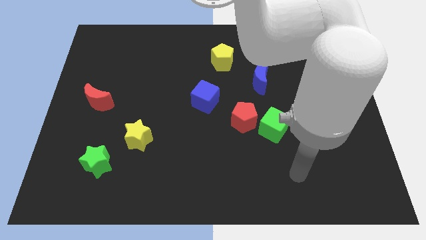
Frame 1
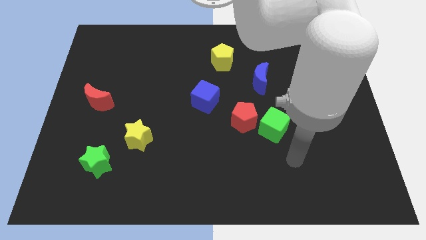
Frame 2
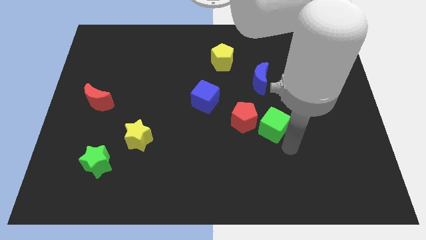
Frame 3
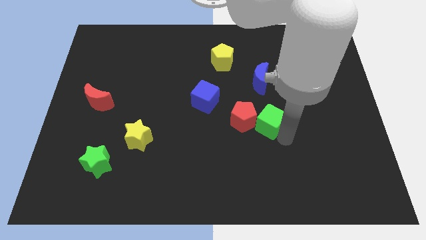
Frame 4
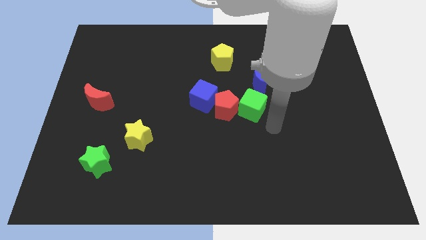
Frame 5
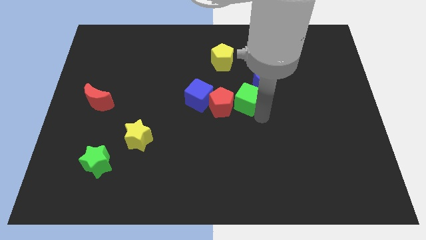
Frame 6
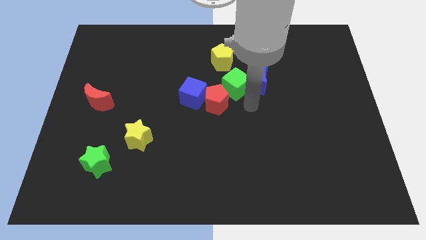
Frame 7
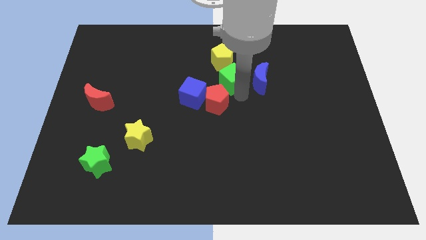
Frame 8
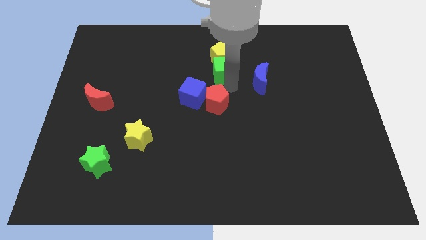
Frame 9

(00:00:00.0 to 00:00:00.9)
pull the red pentagon apart from the green cube

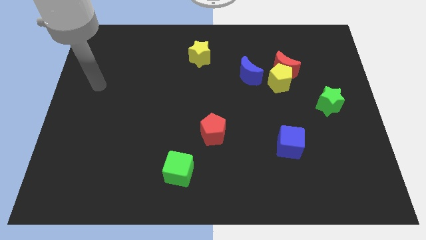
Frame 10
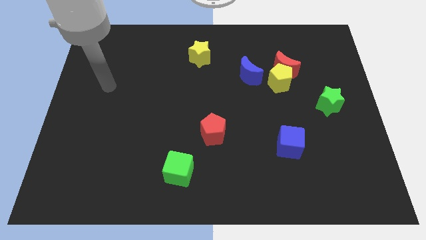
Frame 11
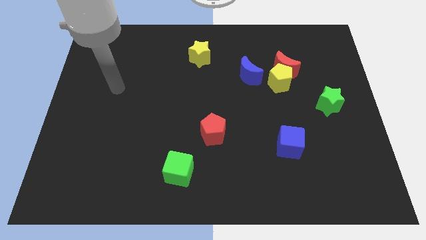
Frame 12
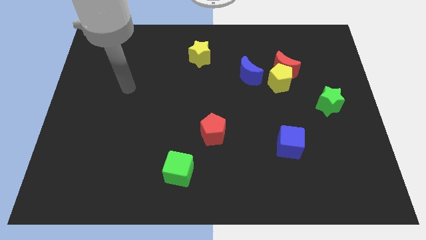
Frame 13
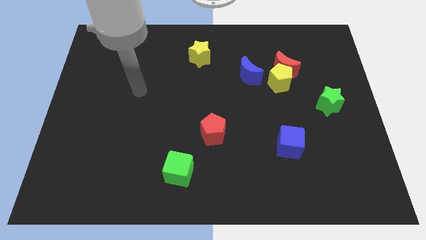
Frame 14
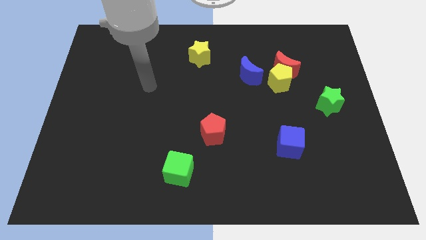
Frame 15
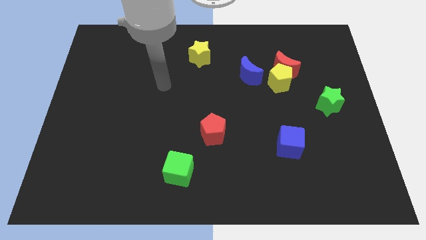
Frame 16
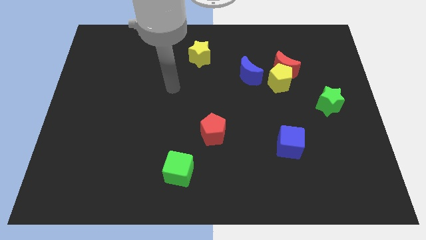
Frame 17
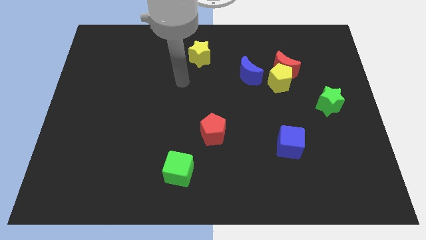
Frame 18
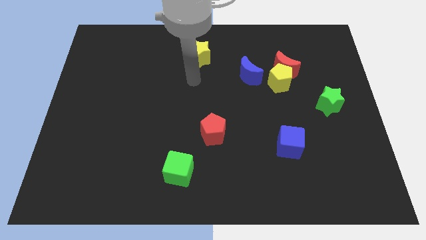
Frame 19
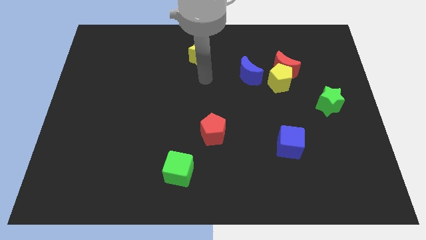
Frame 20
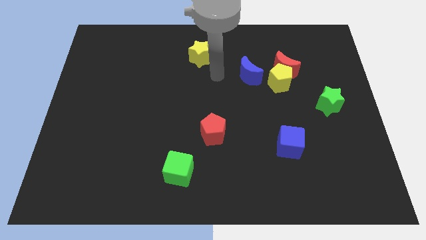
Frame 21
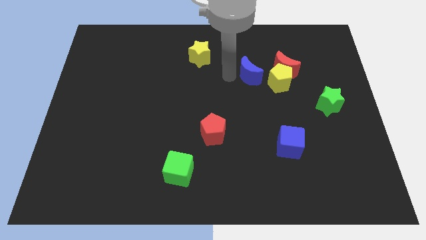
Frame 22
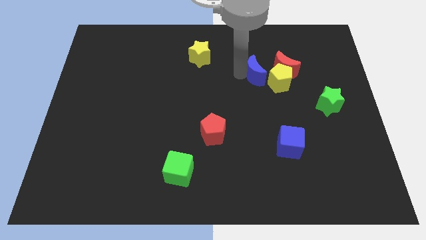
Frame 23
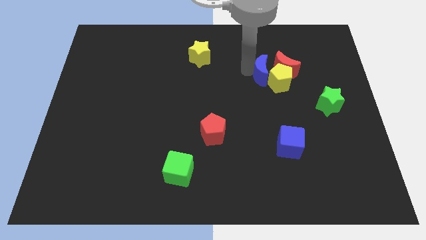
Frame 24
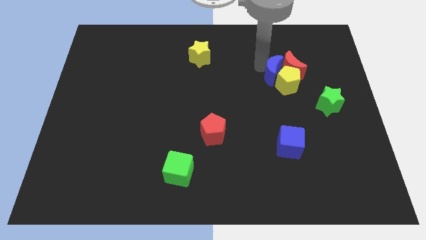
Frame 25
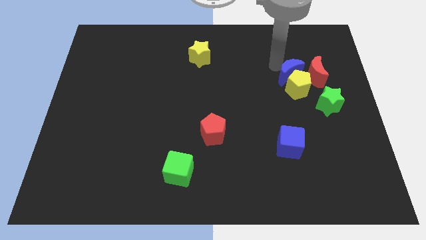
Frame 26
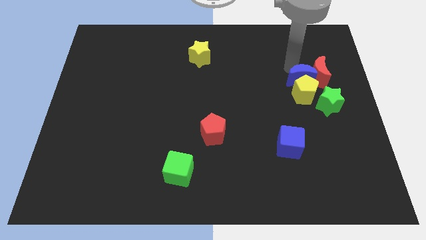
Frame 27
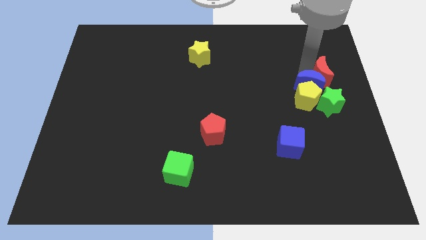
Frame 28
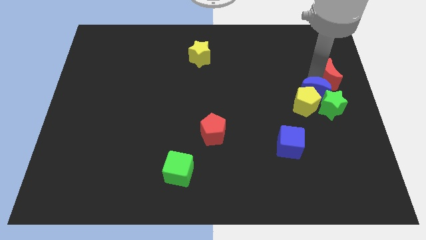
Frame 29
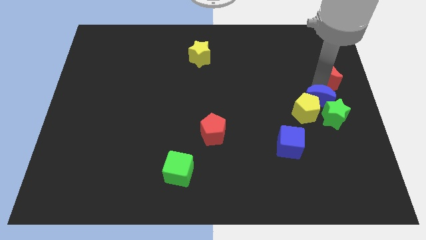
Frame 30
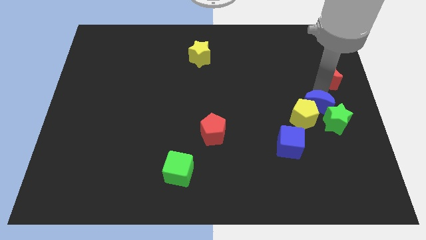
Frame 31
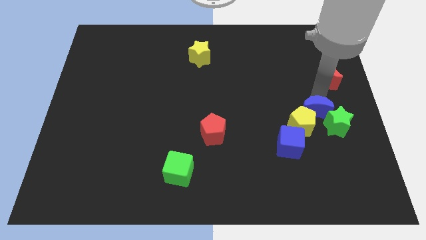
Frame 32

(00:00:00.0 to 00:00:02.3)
move the yellow pentagon away from the red moon and blue moon

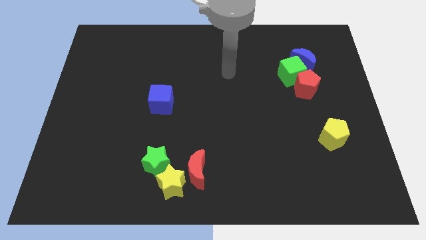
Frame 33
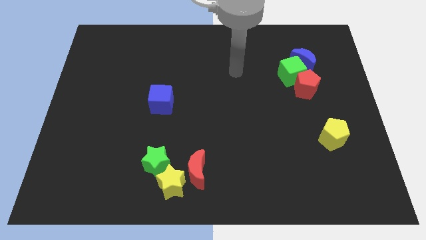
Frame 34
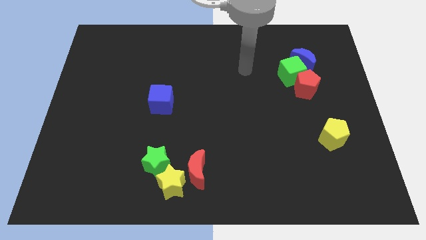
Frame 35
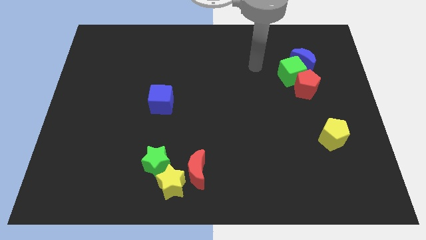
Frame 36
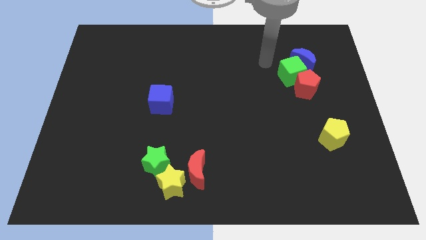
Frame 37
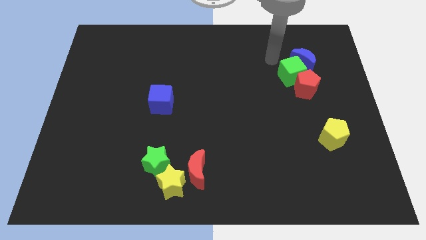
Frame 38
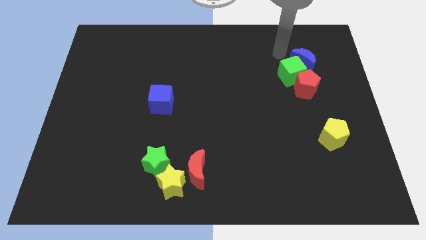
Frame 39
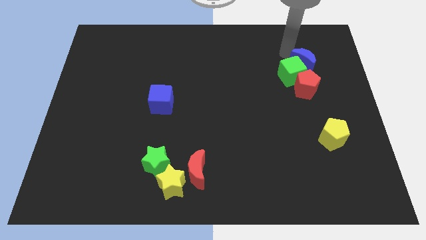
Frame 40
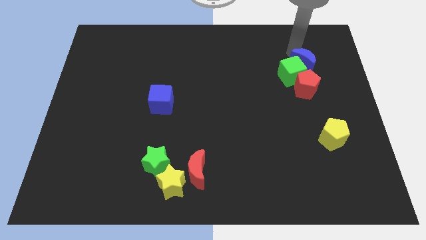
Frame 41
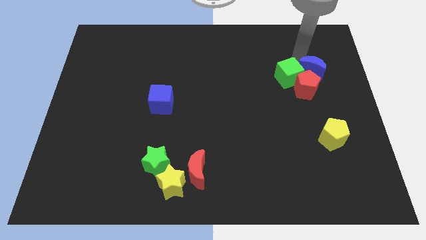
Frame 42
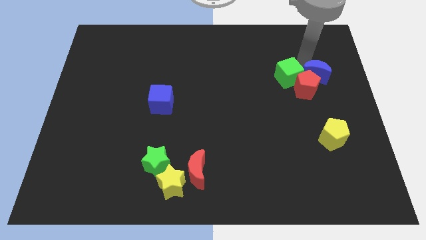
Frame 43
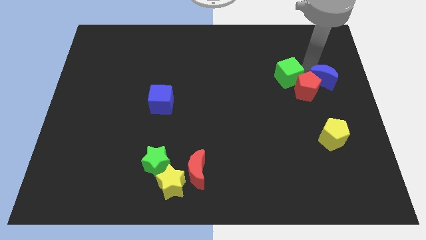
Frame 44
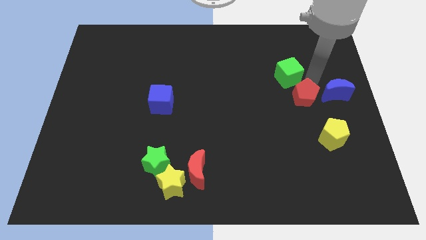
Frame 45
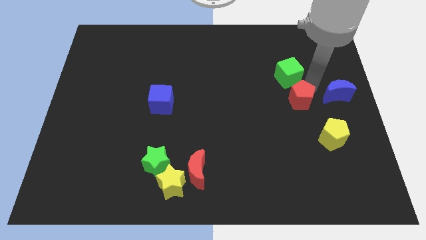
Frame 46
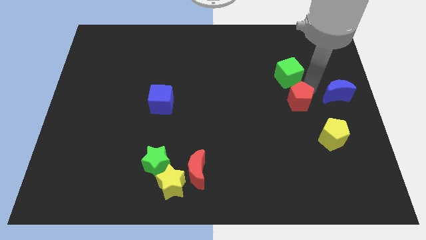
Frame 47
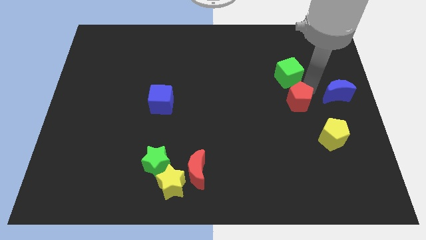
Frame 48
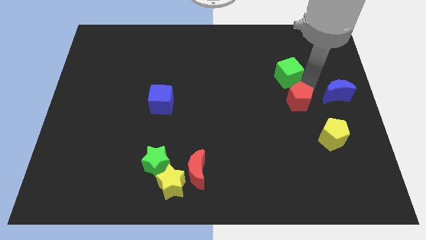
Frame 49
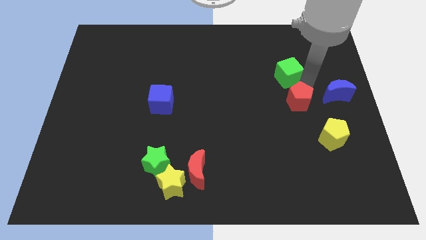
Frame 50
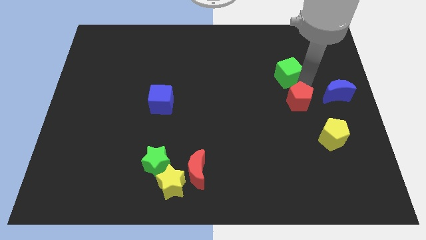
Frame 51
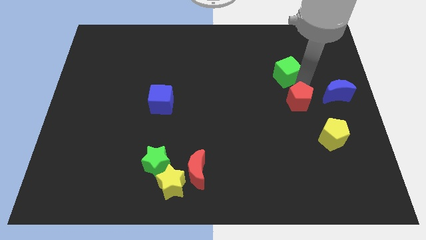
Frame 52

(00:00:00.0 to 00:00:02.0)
separate the green cube from the blue moon and red pentagon

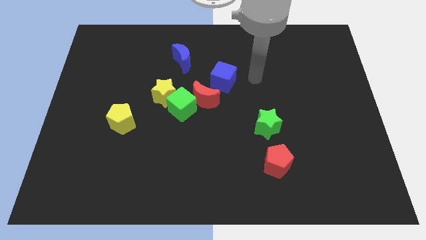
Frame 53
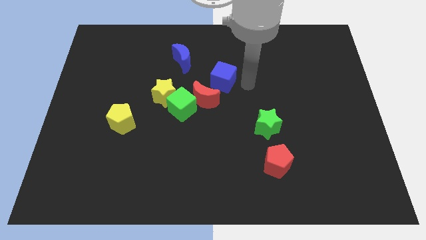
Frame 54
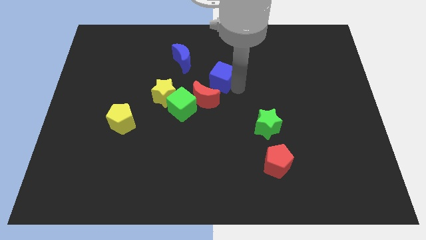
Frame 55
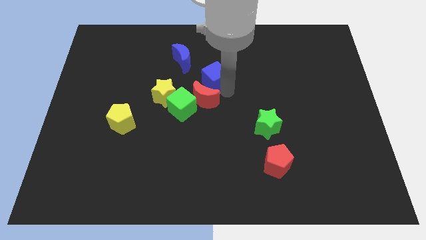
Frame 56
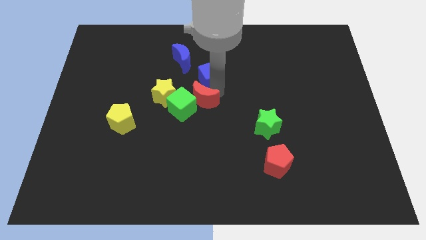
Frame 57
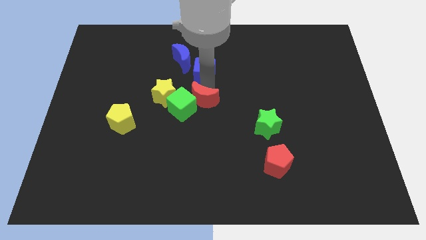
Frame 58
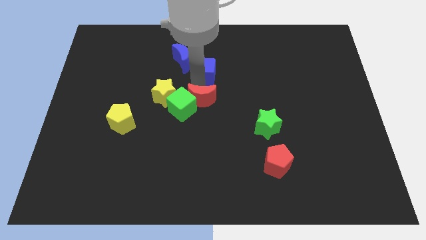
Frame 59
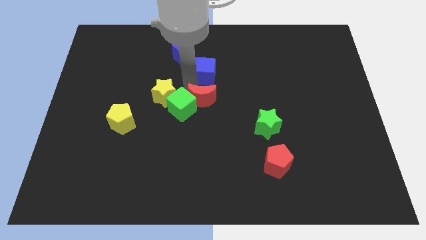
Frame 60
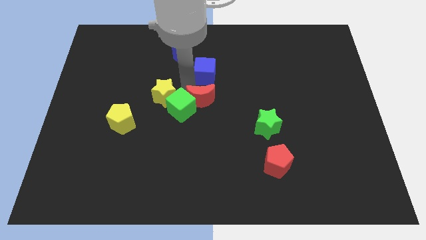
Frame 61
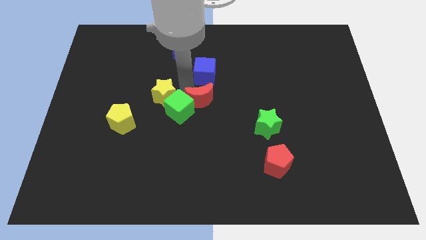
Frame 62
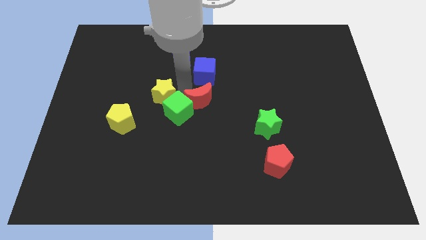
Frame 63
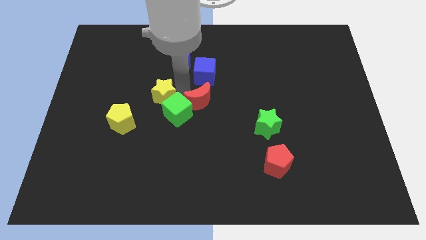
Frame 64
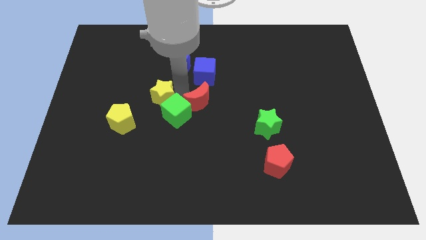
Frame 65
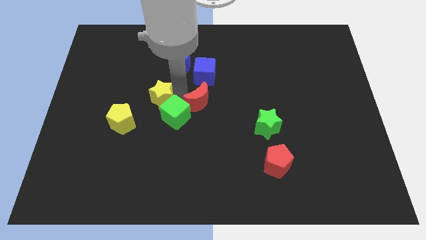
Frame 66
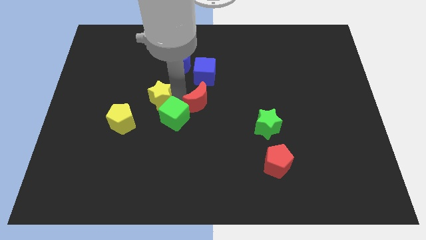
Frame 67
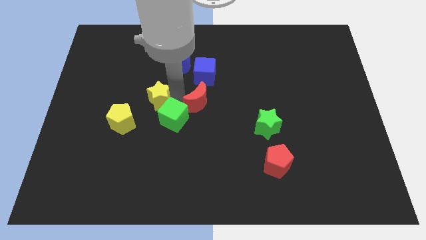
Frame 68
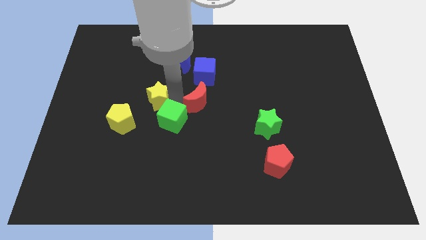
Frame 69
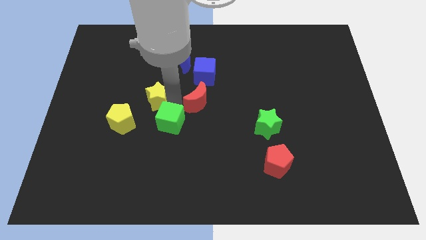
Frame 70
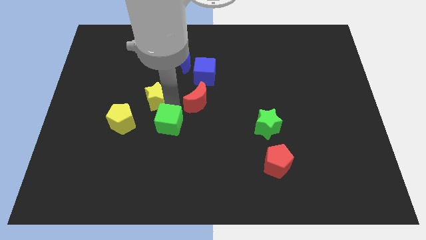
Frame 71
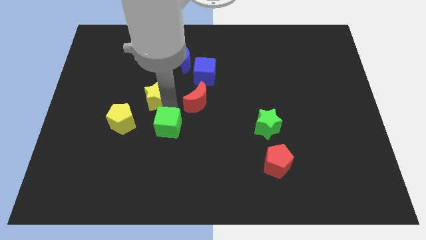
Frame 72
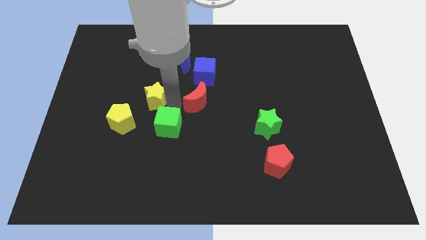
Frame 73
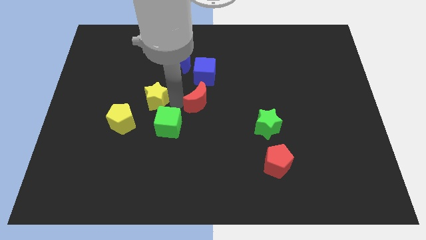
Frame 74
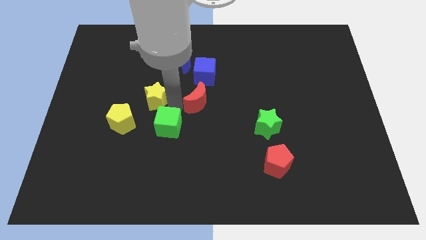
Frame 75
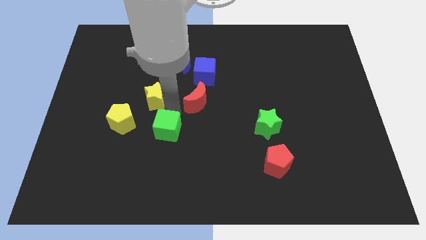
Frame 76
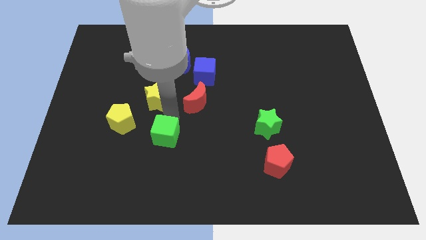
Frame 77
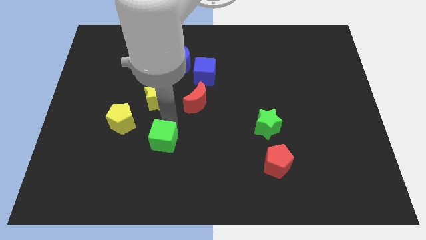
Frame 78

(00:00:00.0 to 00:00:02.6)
move the green cube away from the yellow star and red moon

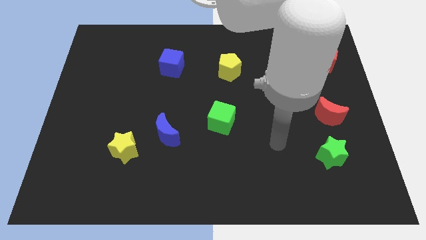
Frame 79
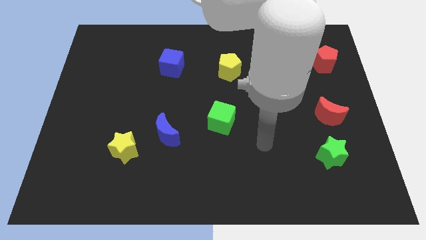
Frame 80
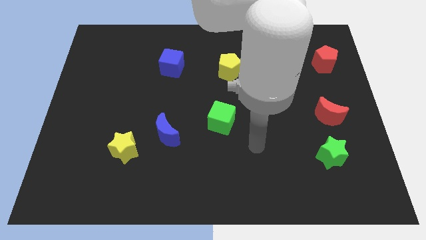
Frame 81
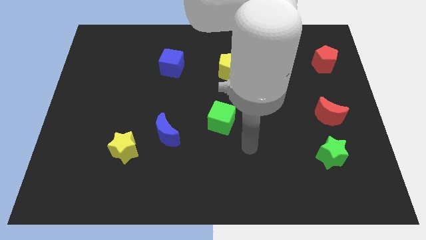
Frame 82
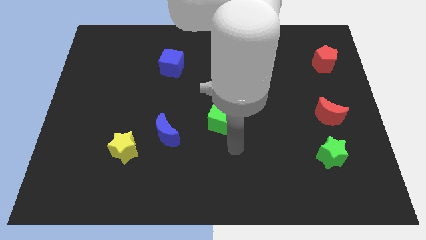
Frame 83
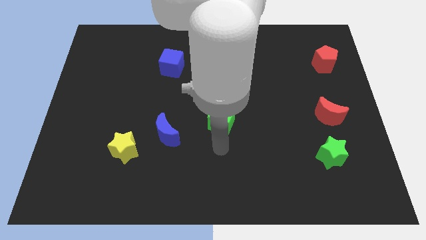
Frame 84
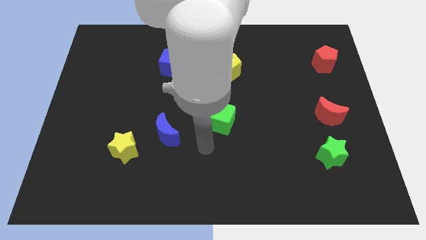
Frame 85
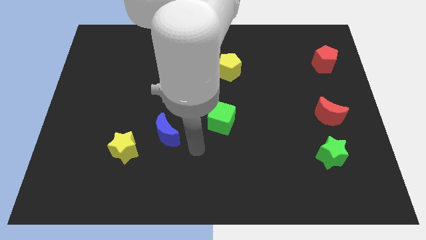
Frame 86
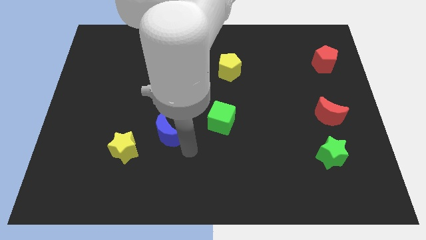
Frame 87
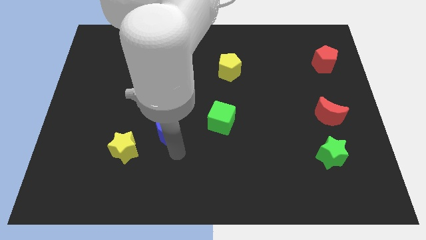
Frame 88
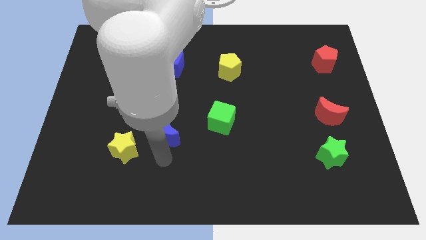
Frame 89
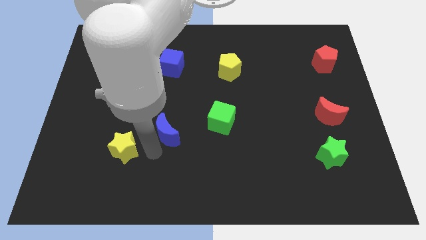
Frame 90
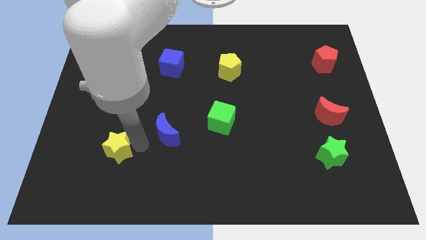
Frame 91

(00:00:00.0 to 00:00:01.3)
move the blue moon away from the yellow star

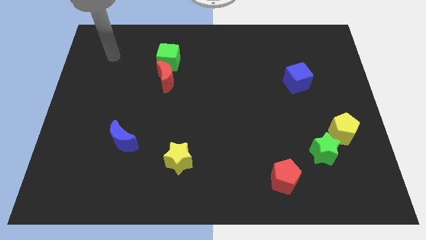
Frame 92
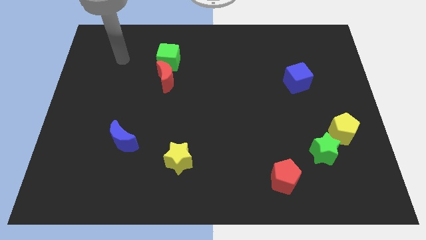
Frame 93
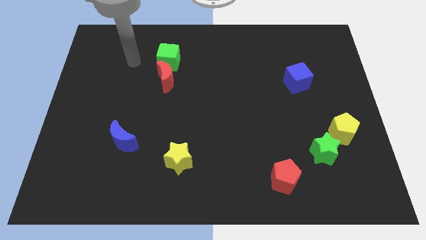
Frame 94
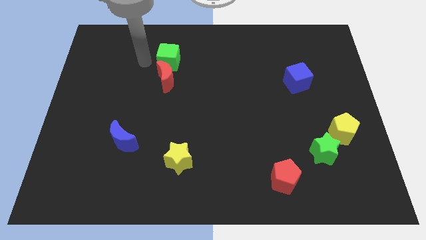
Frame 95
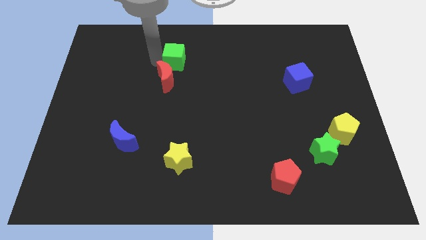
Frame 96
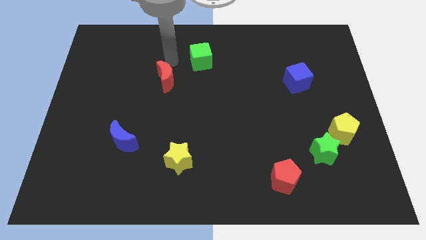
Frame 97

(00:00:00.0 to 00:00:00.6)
move the red moon away from the green cube
